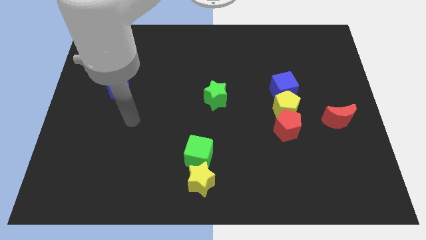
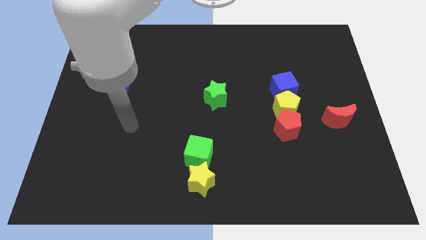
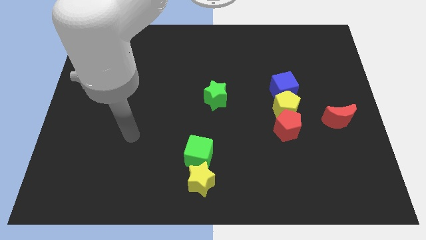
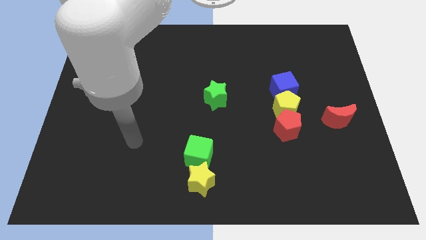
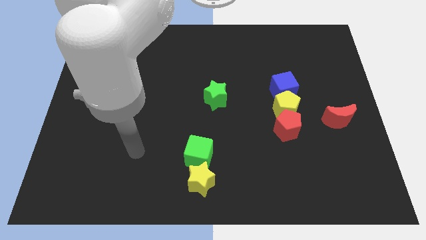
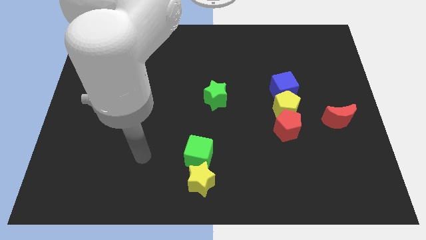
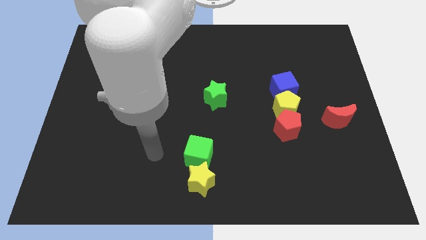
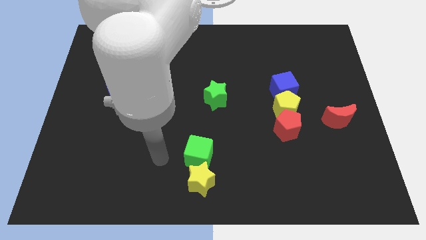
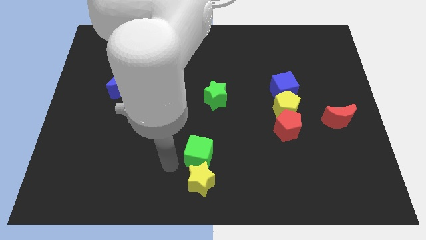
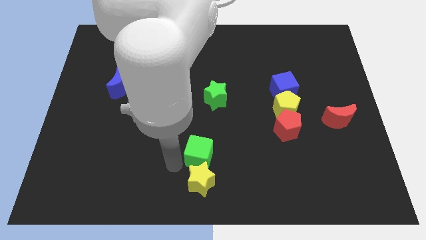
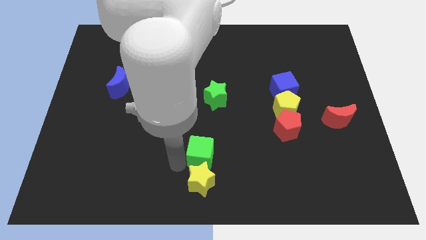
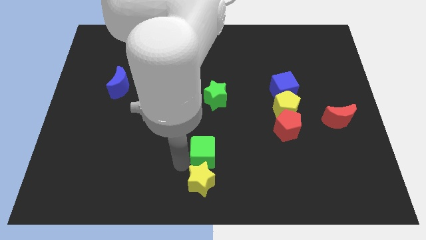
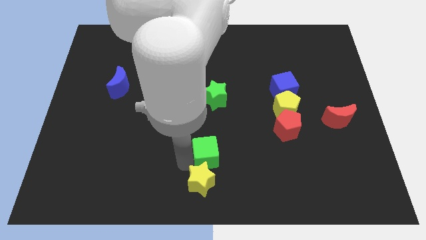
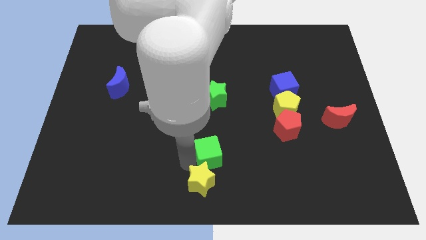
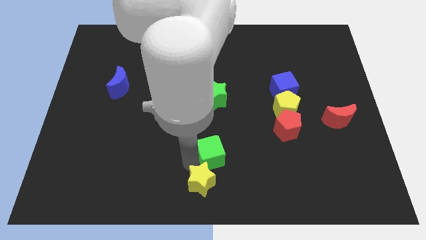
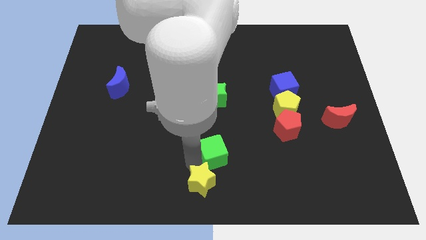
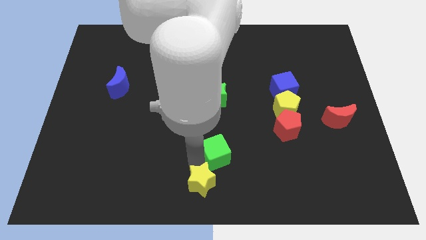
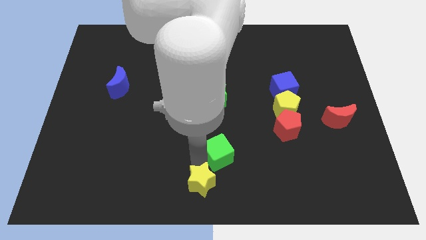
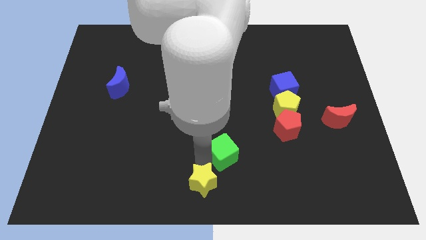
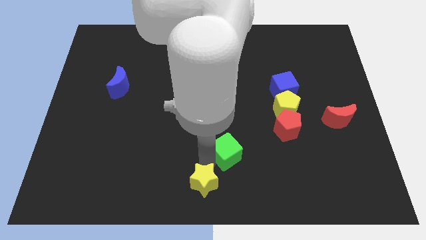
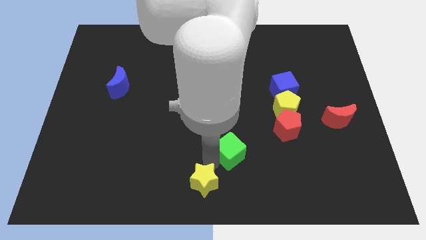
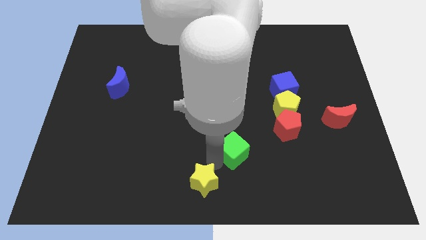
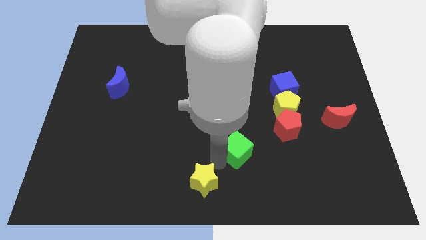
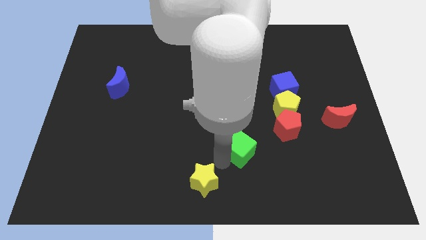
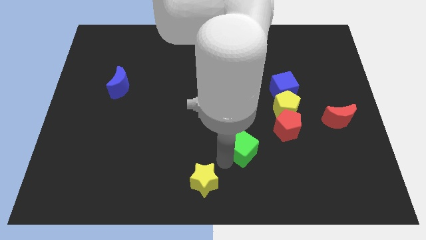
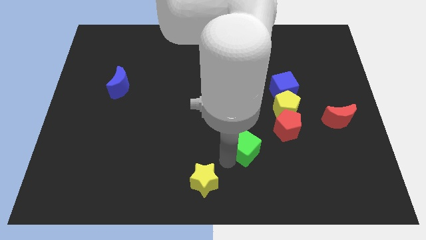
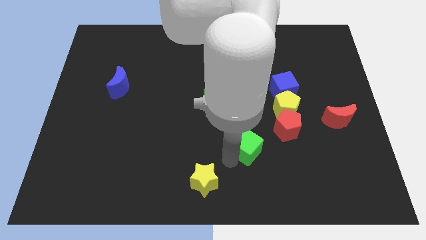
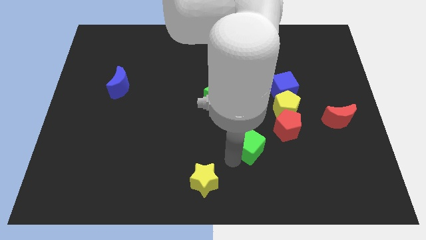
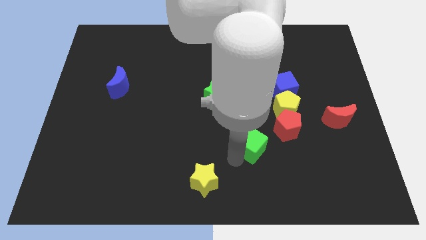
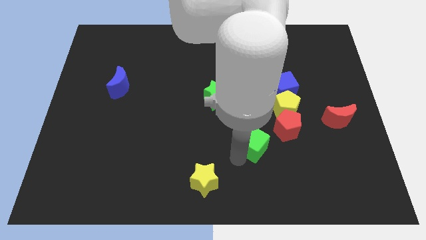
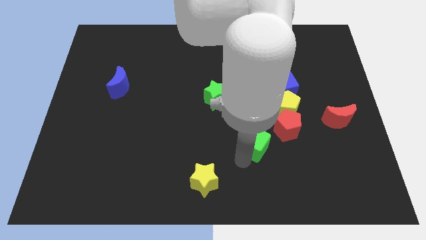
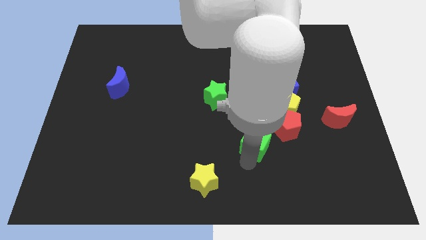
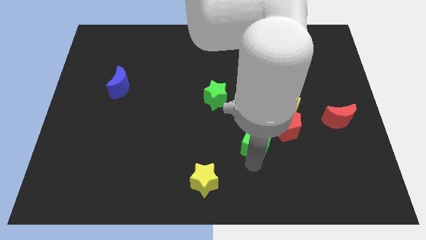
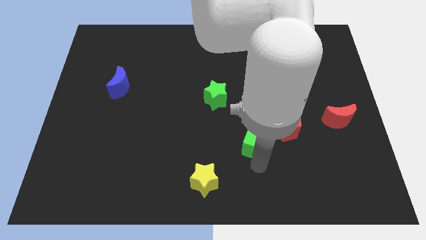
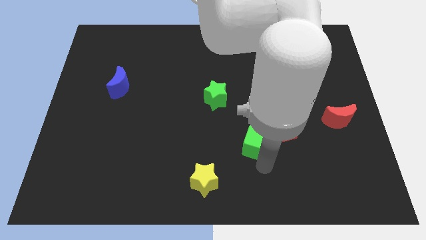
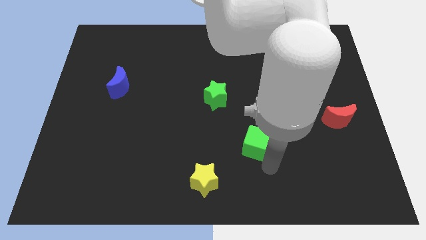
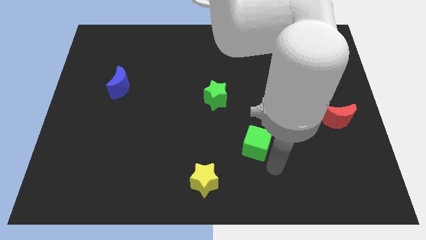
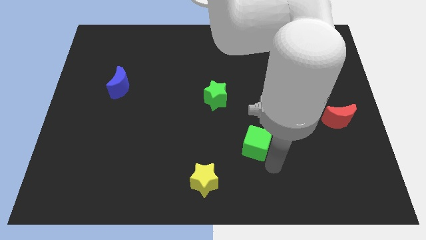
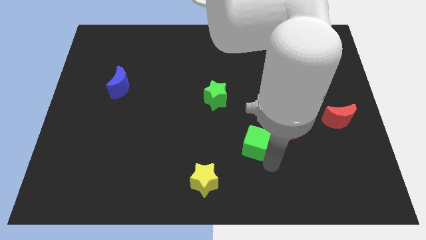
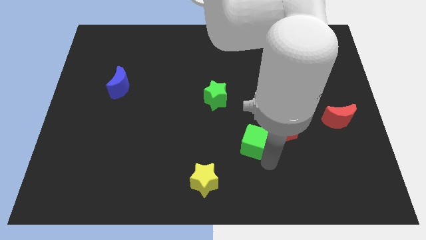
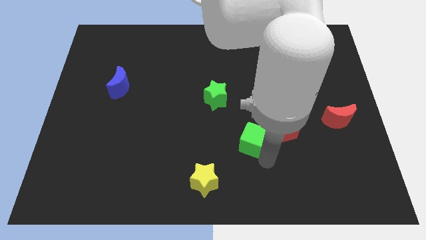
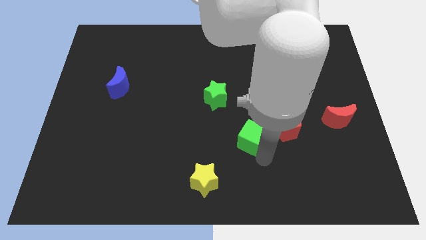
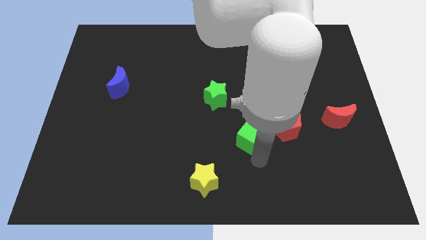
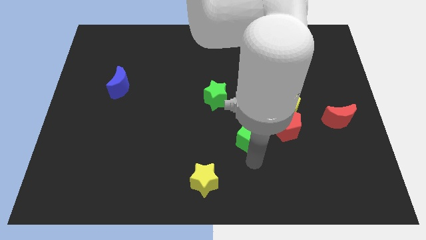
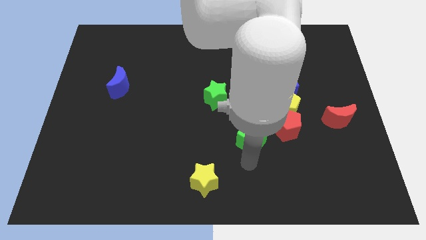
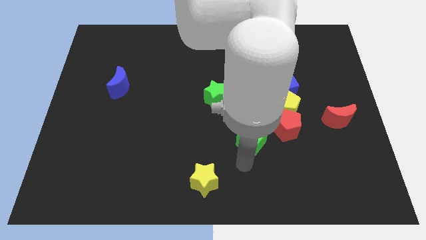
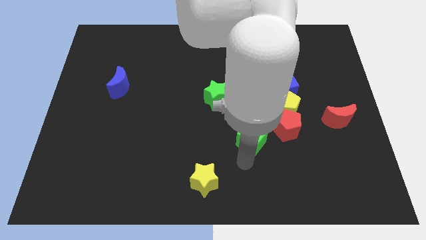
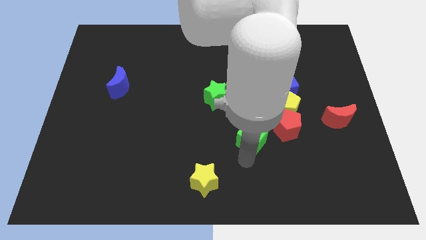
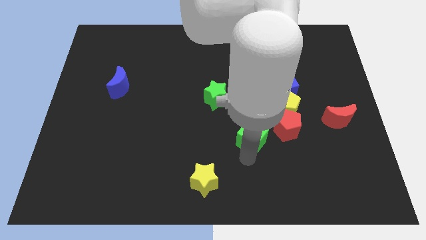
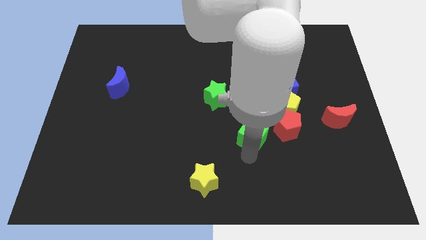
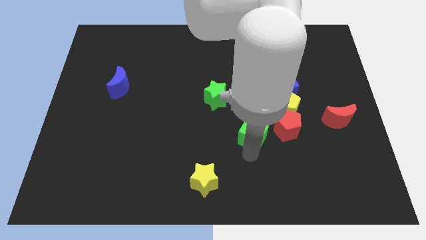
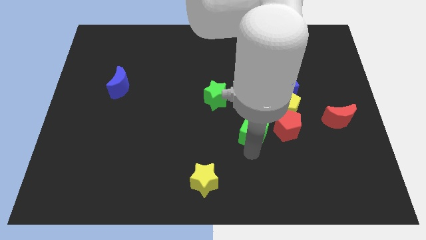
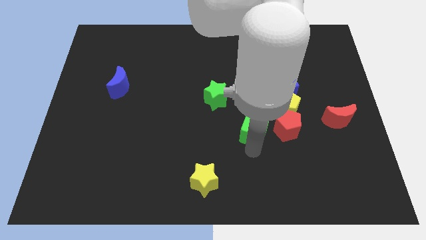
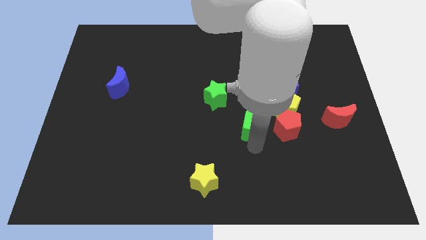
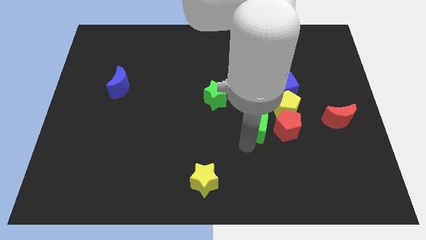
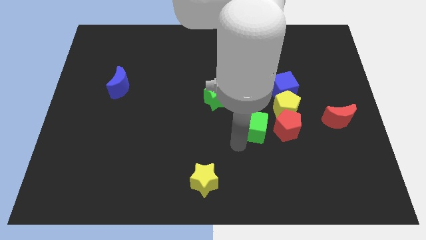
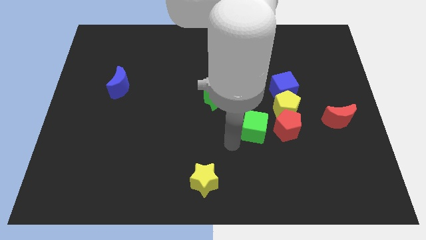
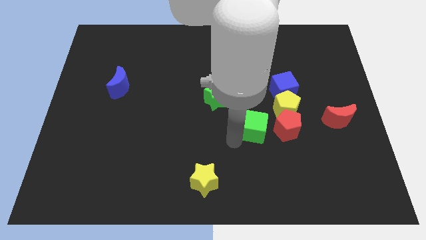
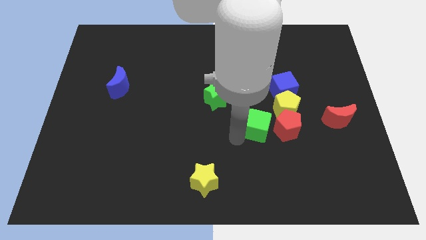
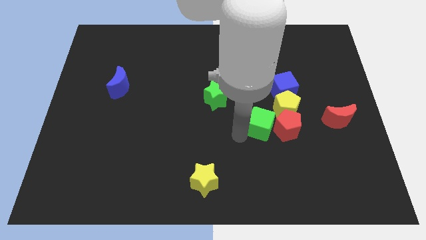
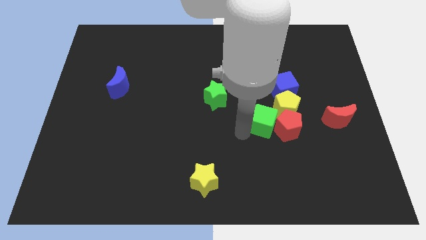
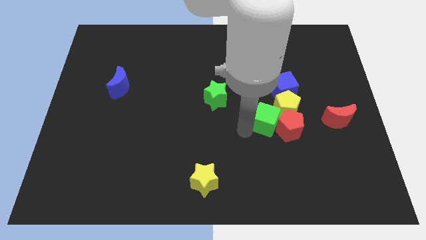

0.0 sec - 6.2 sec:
push the green cube next to the yellow pentagon

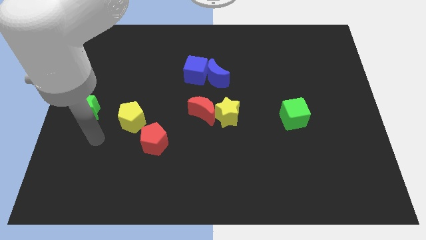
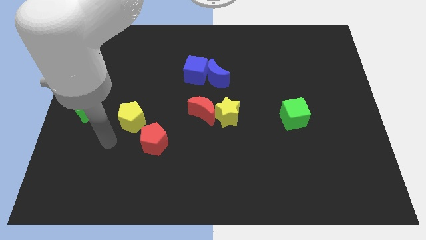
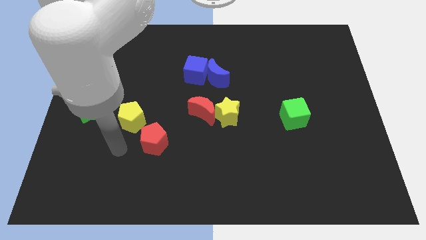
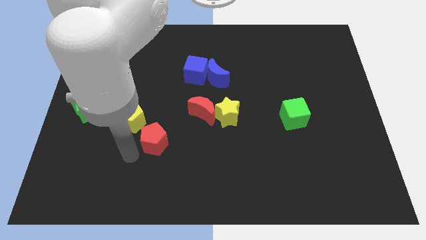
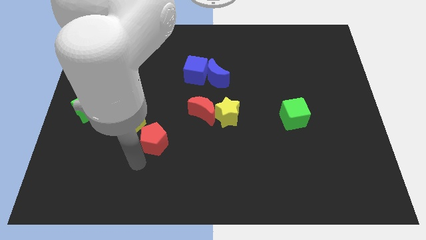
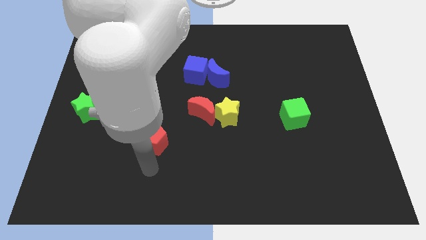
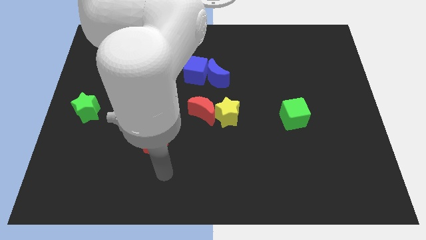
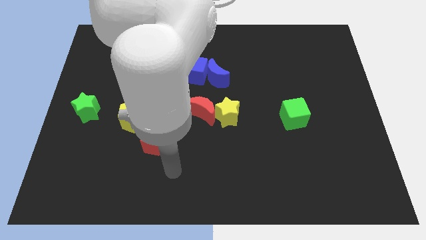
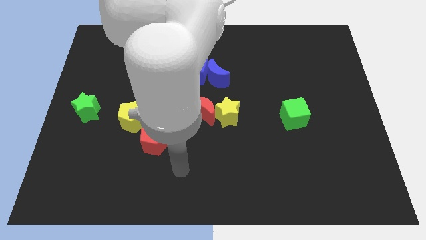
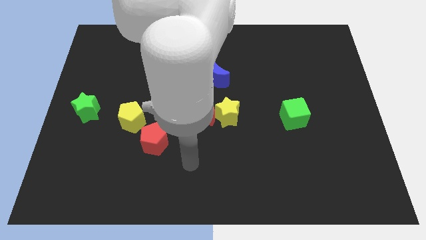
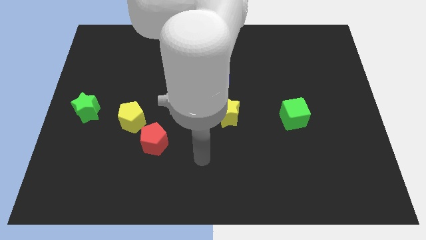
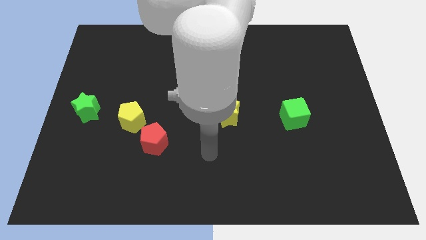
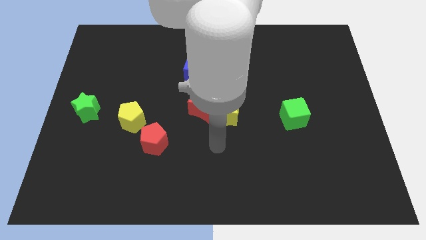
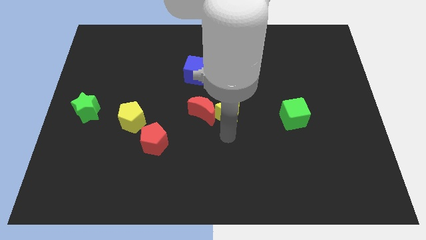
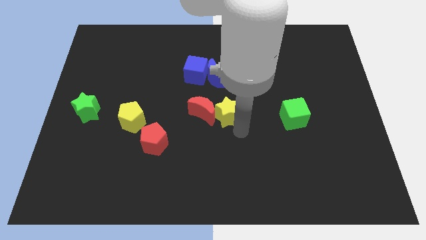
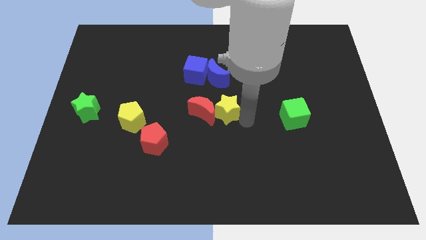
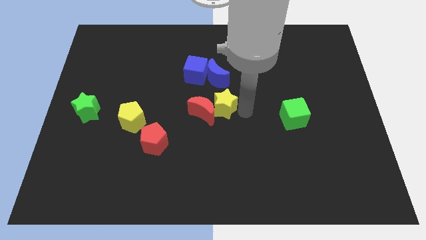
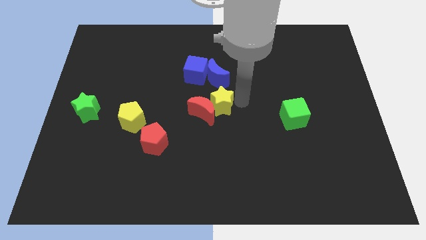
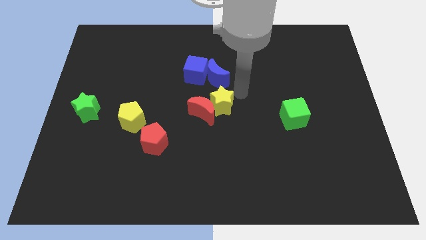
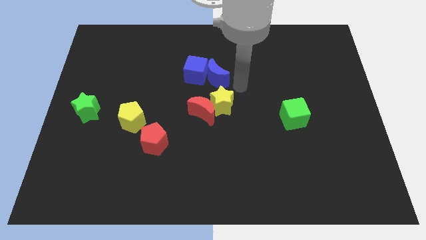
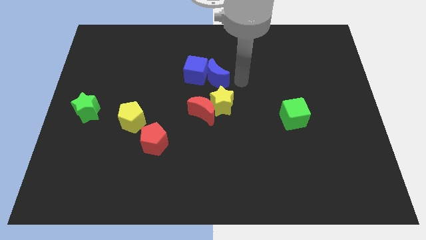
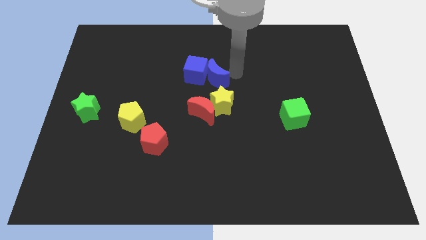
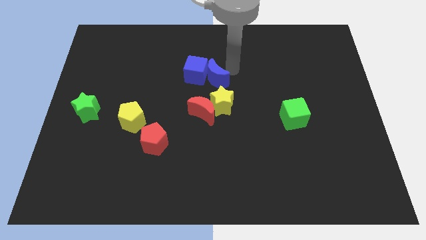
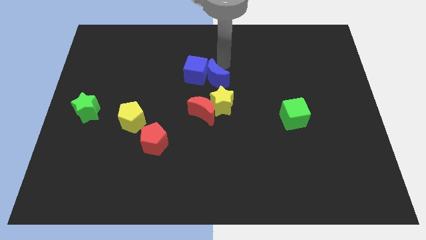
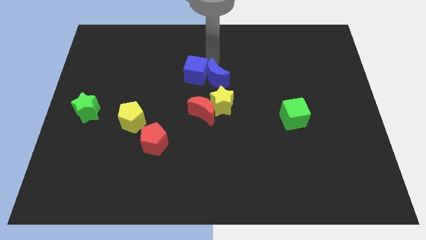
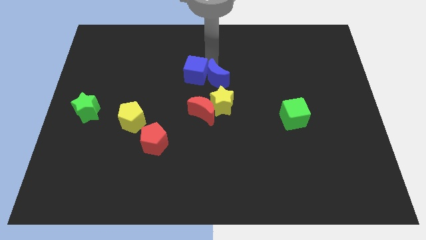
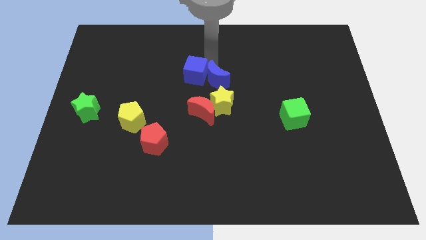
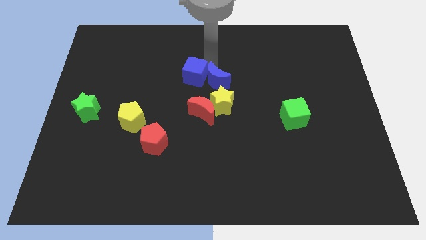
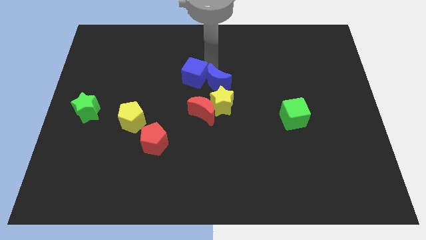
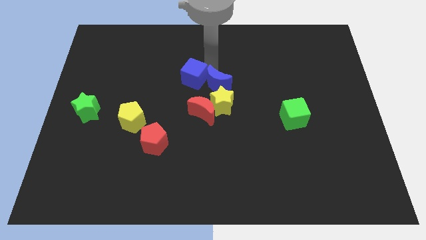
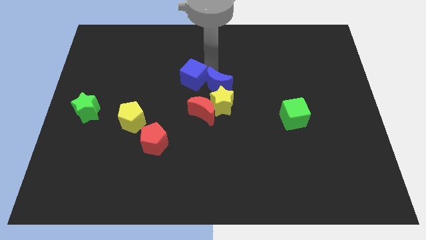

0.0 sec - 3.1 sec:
slide the blue moon to the yellow star
